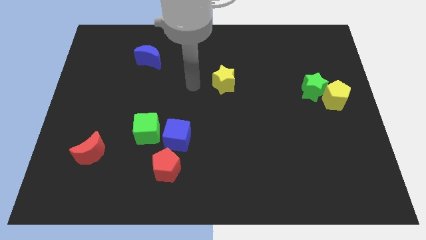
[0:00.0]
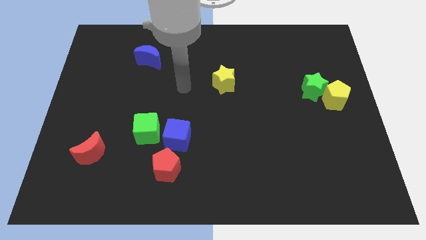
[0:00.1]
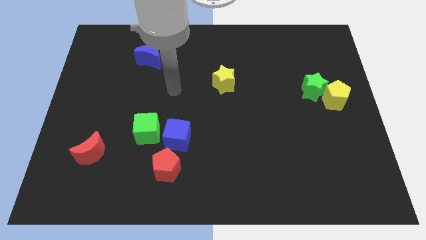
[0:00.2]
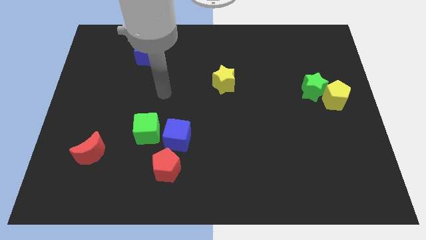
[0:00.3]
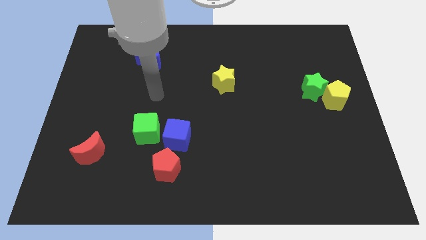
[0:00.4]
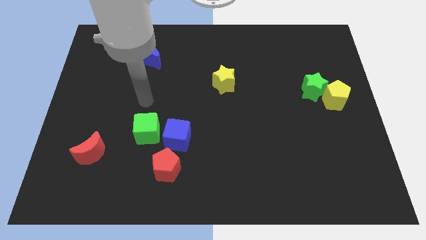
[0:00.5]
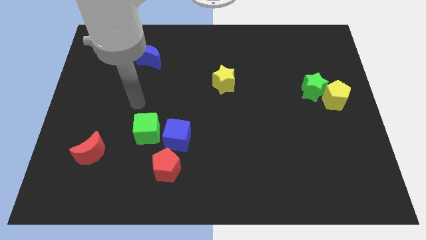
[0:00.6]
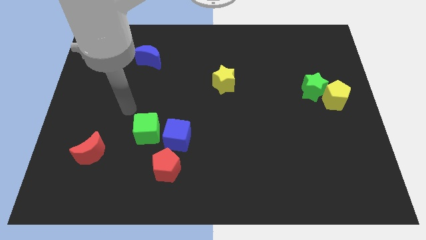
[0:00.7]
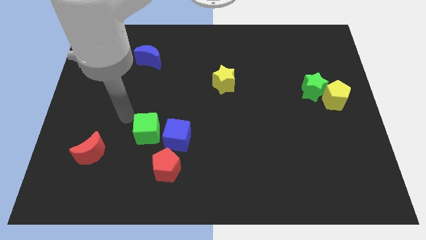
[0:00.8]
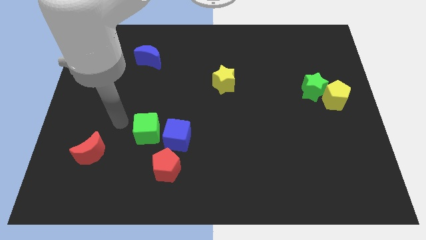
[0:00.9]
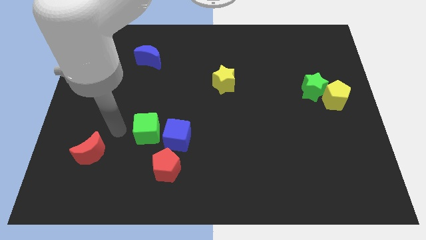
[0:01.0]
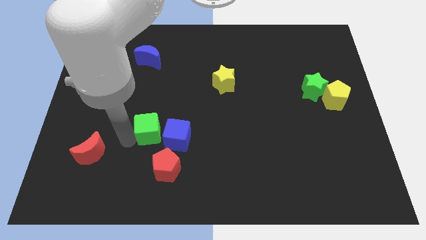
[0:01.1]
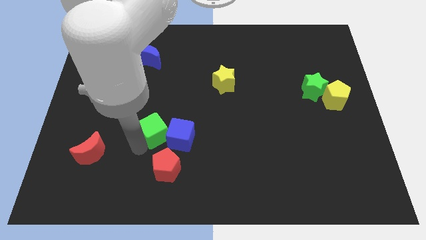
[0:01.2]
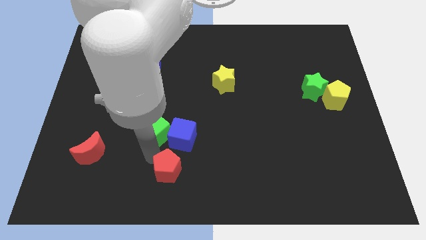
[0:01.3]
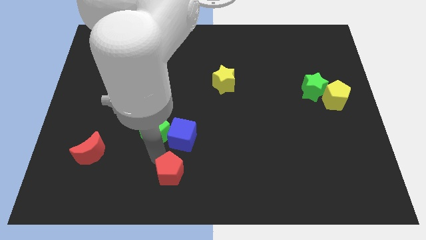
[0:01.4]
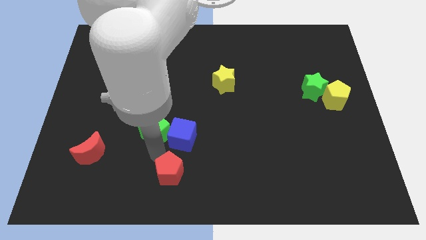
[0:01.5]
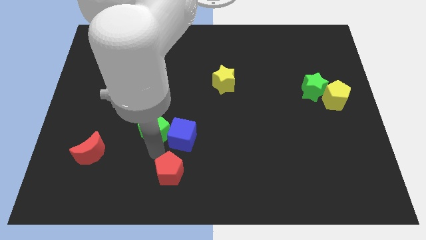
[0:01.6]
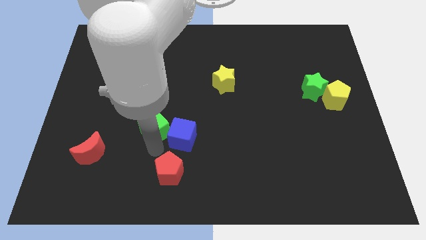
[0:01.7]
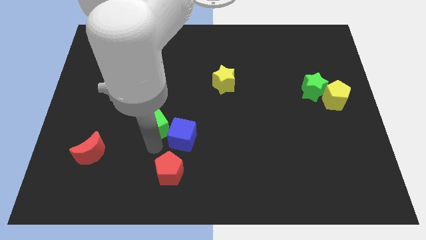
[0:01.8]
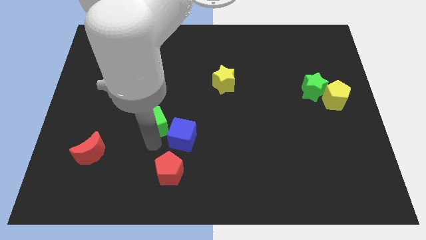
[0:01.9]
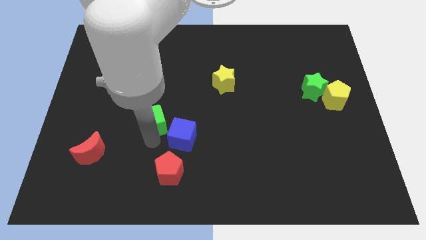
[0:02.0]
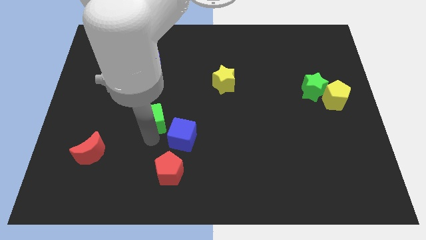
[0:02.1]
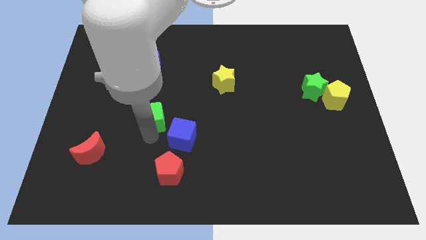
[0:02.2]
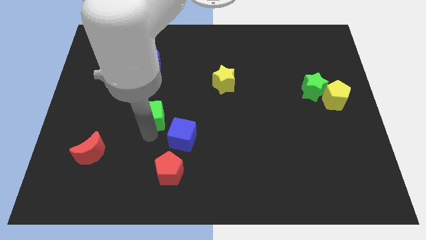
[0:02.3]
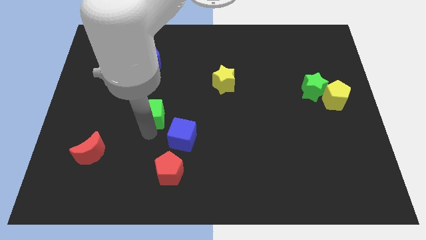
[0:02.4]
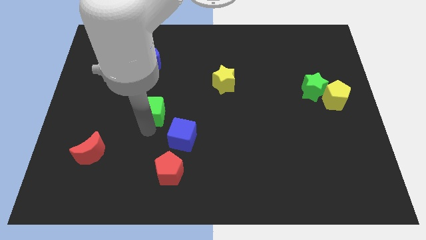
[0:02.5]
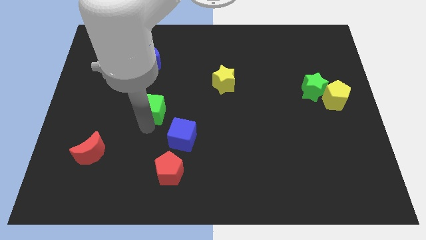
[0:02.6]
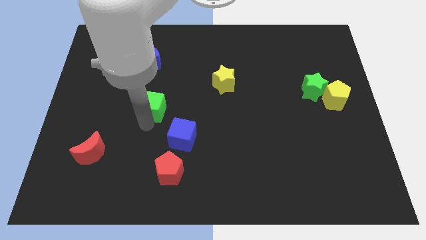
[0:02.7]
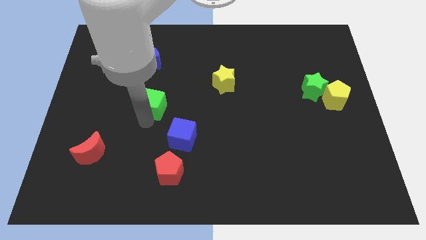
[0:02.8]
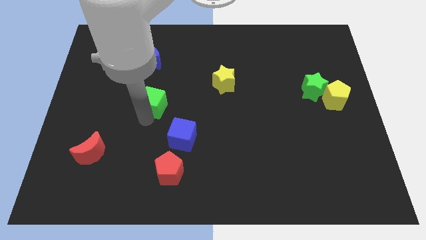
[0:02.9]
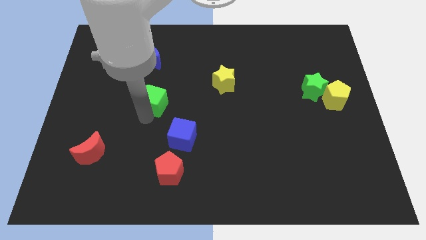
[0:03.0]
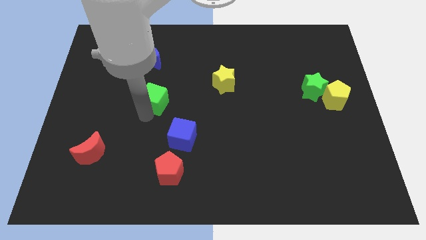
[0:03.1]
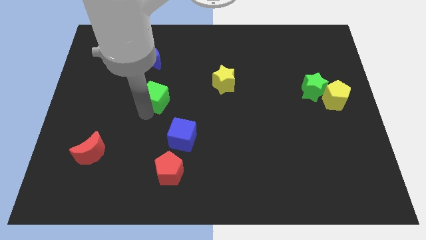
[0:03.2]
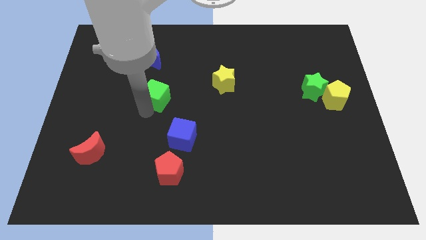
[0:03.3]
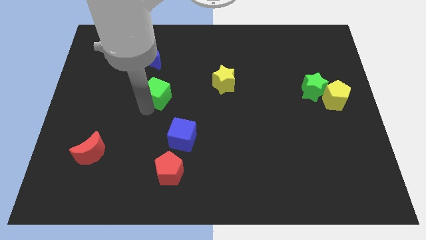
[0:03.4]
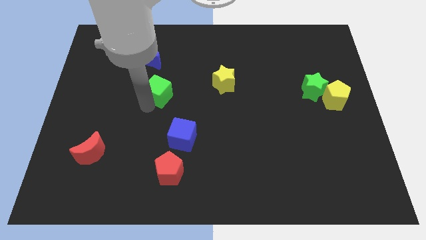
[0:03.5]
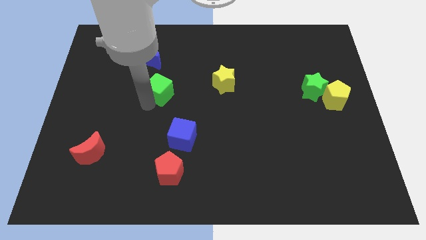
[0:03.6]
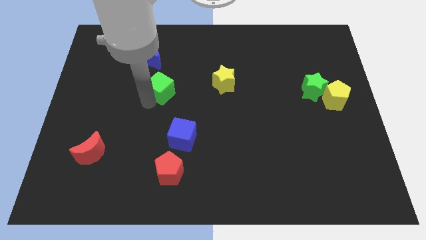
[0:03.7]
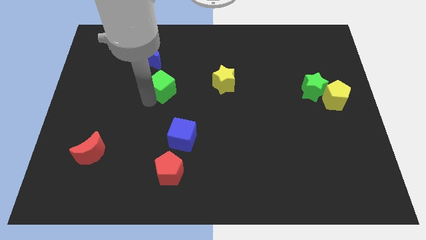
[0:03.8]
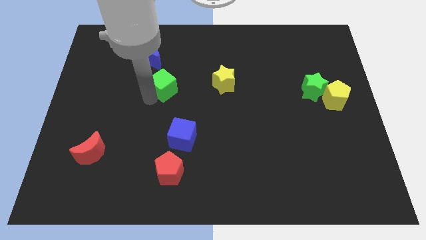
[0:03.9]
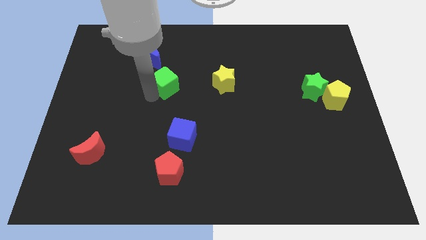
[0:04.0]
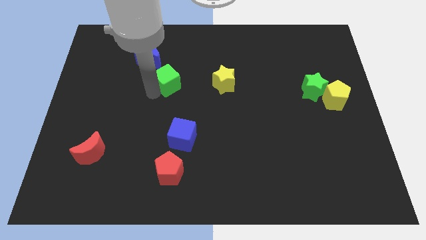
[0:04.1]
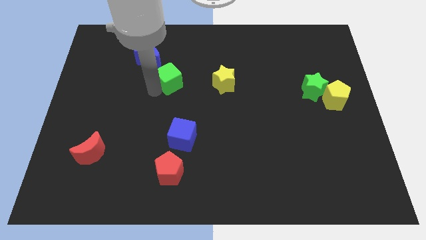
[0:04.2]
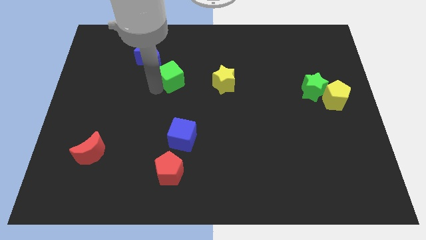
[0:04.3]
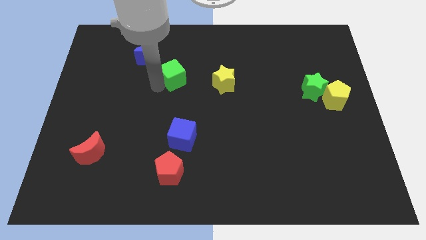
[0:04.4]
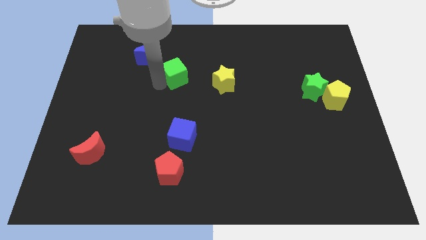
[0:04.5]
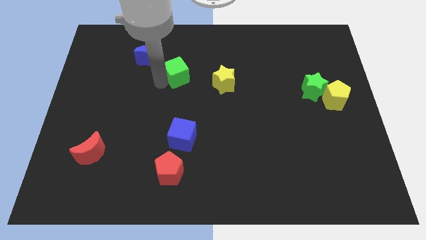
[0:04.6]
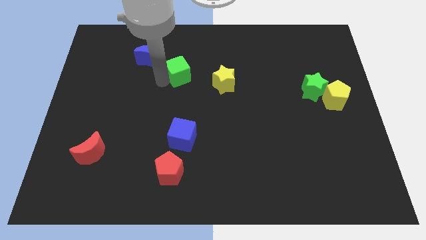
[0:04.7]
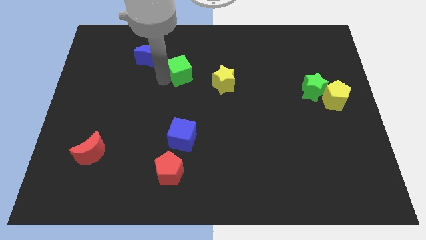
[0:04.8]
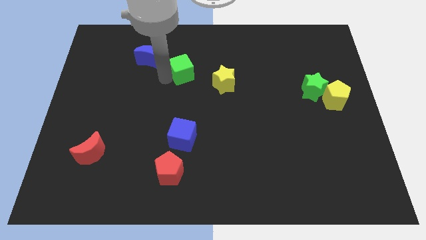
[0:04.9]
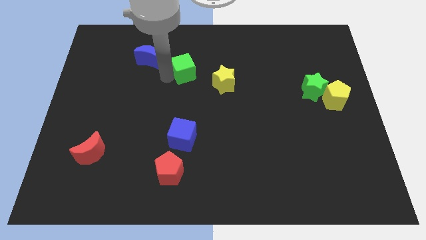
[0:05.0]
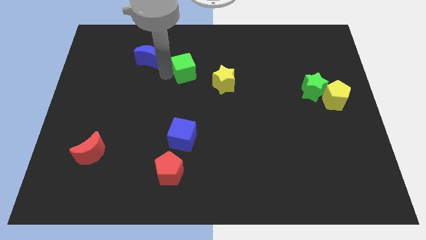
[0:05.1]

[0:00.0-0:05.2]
push the green cube diagonally up and to the left of the yellow star

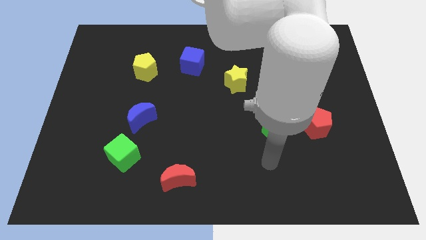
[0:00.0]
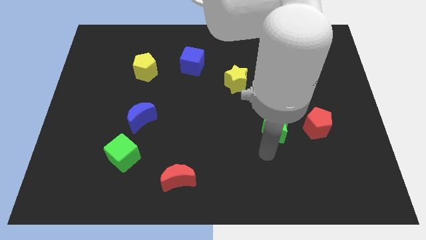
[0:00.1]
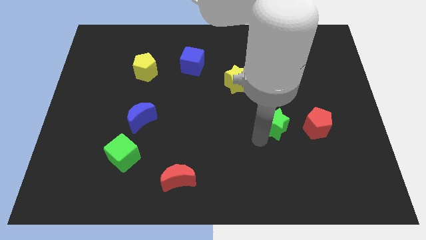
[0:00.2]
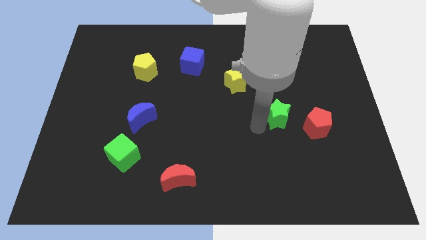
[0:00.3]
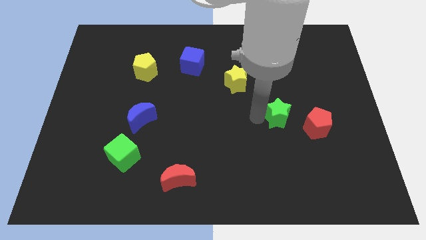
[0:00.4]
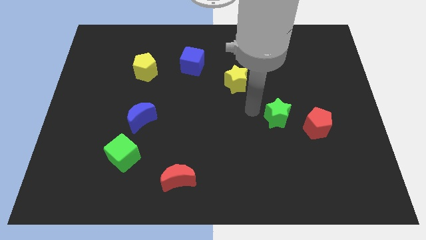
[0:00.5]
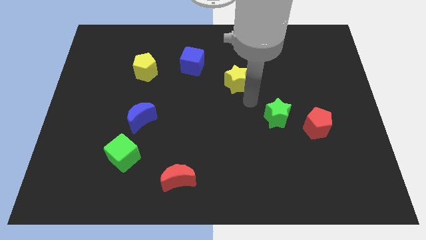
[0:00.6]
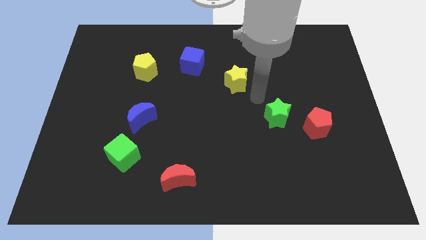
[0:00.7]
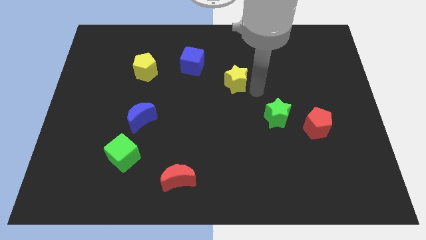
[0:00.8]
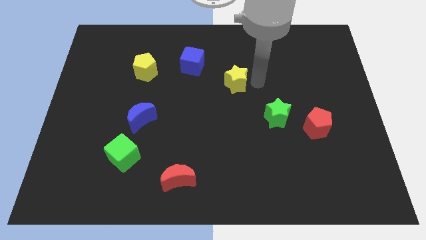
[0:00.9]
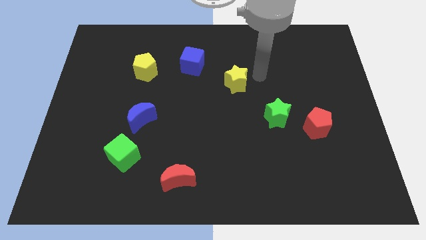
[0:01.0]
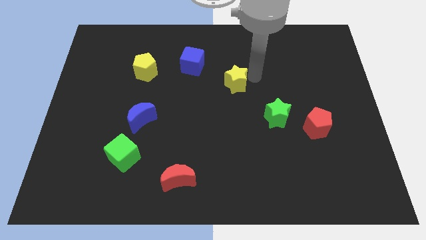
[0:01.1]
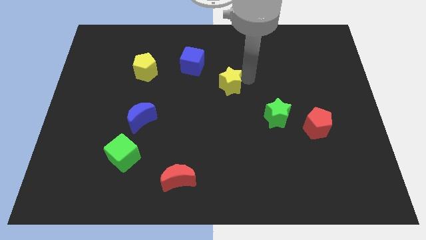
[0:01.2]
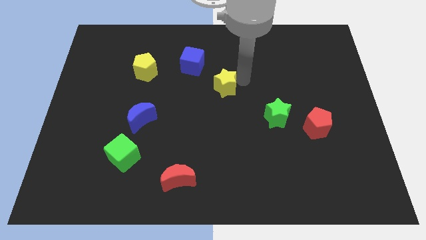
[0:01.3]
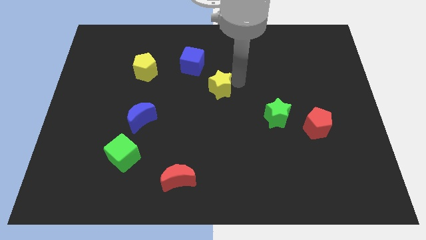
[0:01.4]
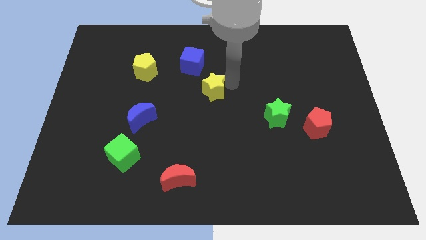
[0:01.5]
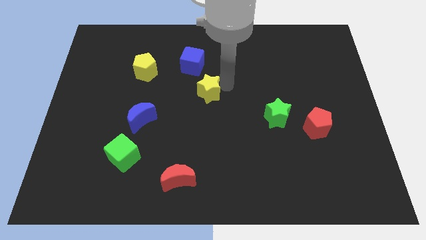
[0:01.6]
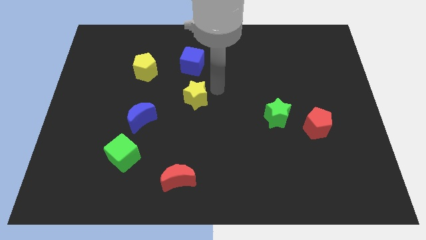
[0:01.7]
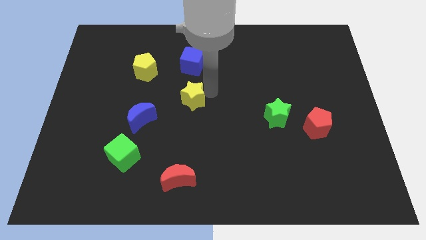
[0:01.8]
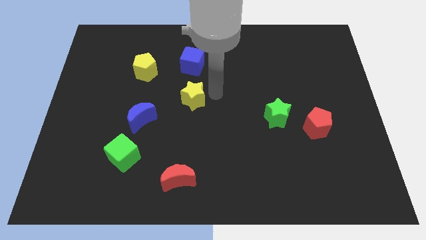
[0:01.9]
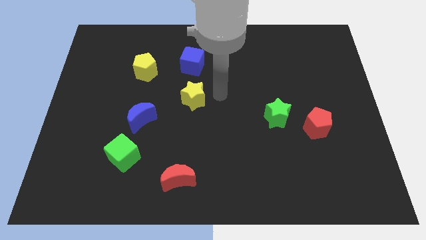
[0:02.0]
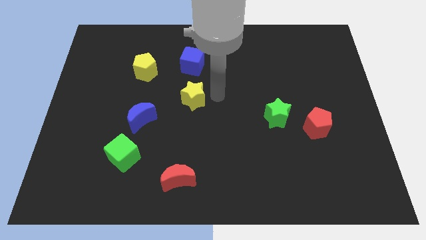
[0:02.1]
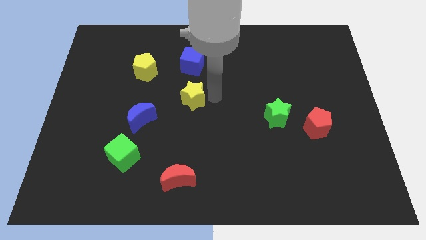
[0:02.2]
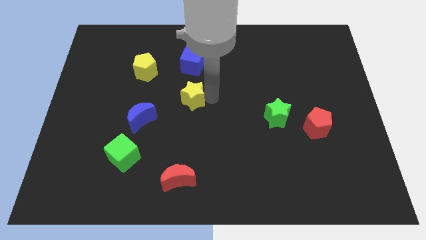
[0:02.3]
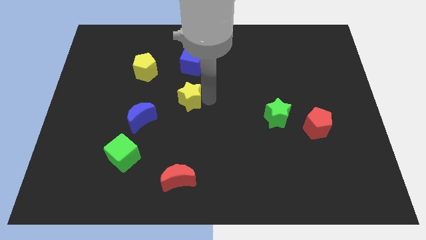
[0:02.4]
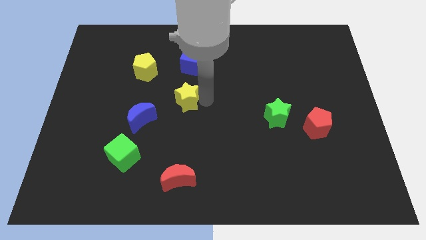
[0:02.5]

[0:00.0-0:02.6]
slide the yellow star diagonally up and to the right of the blue moon
